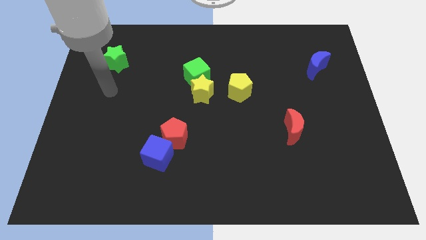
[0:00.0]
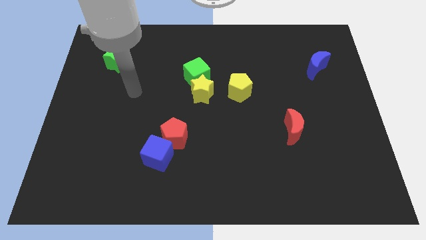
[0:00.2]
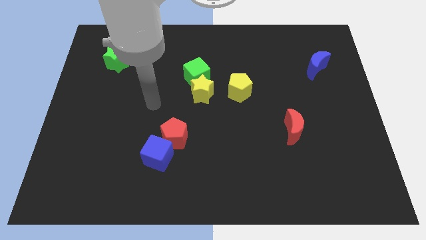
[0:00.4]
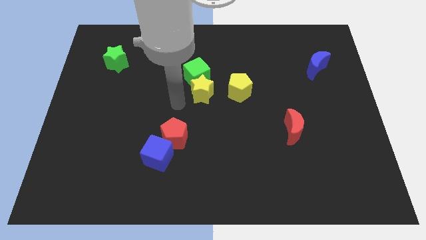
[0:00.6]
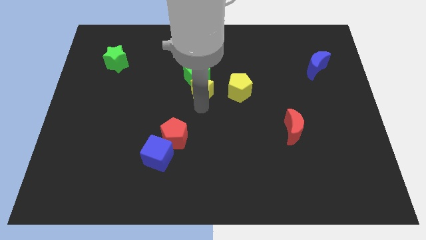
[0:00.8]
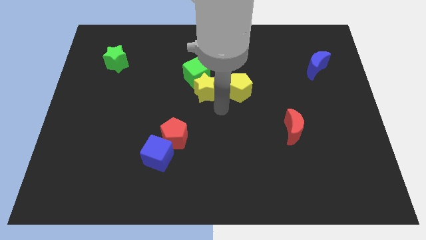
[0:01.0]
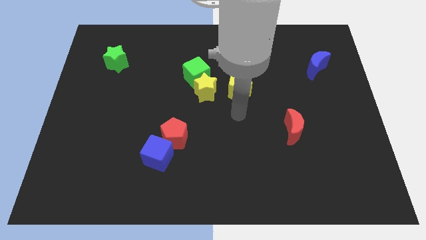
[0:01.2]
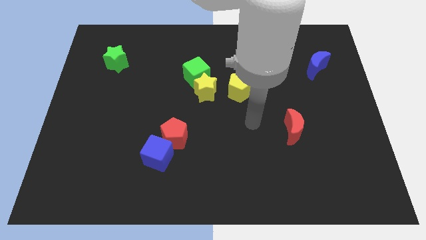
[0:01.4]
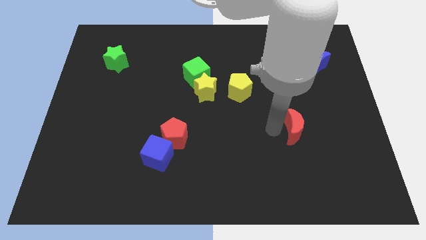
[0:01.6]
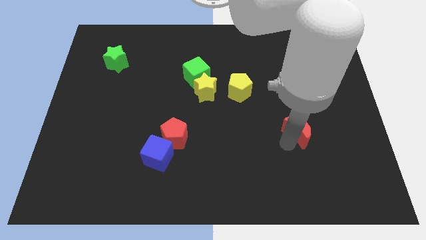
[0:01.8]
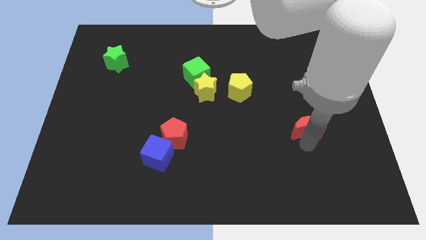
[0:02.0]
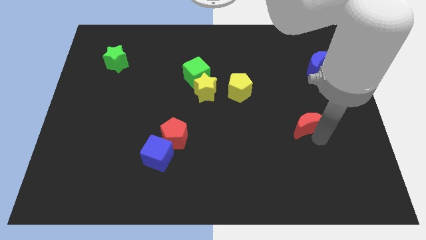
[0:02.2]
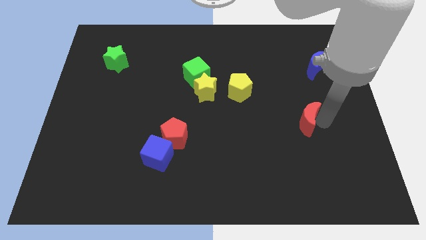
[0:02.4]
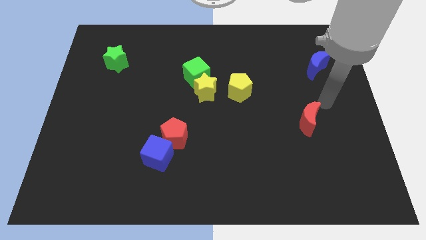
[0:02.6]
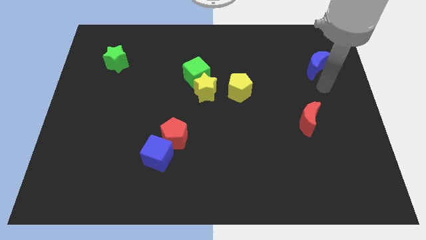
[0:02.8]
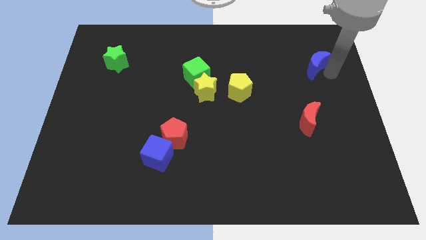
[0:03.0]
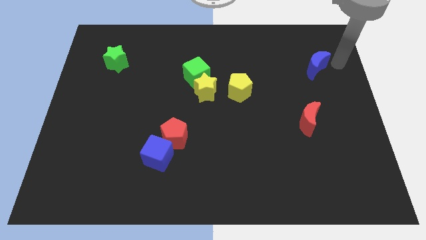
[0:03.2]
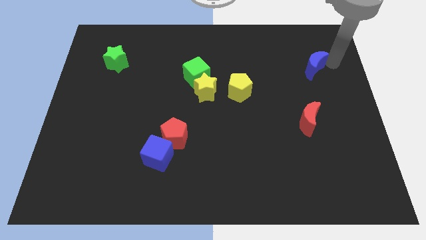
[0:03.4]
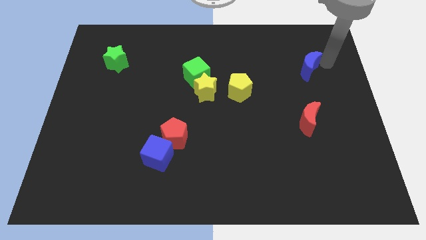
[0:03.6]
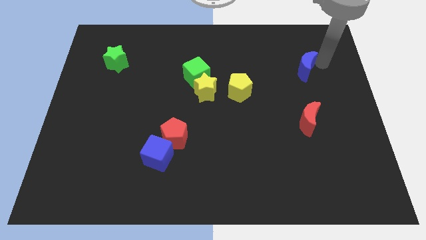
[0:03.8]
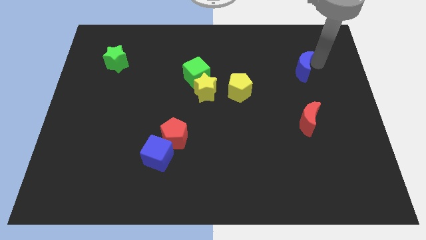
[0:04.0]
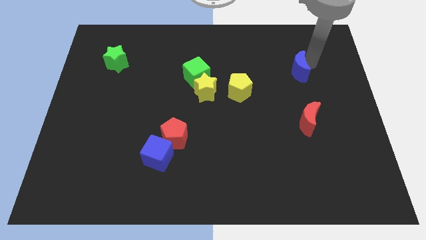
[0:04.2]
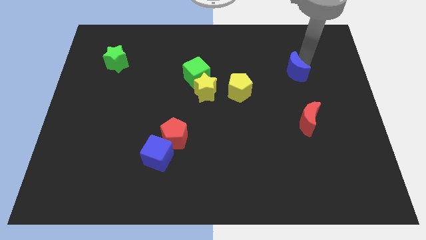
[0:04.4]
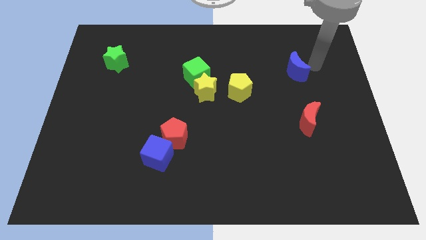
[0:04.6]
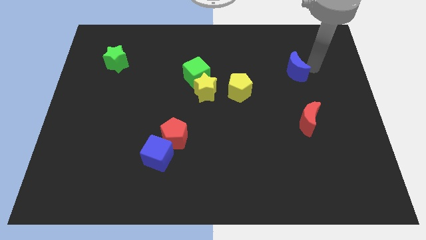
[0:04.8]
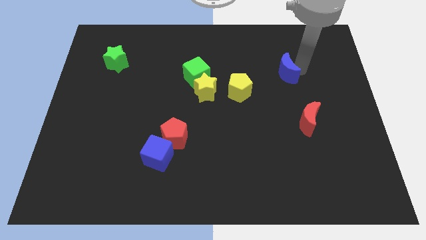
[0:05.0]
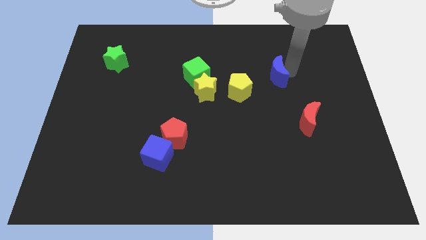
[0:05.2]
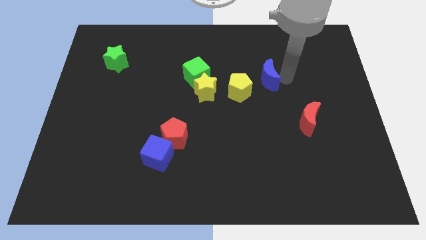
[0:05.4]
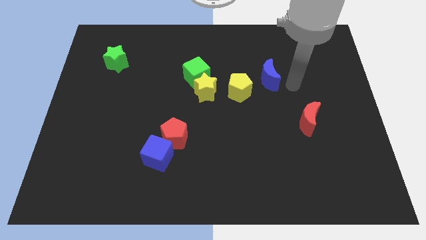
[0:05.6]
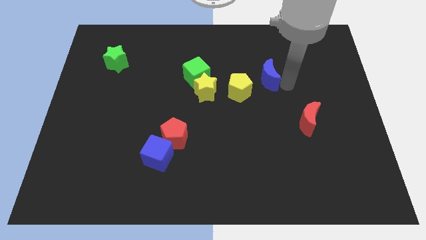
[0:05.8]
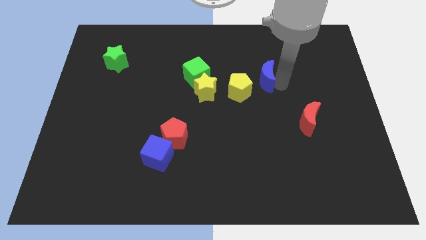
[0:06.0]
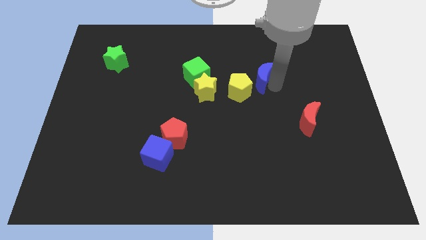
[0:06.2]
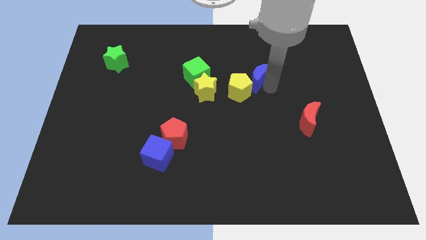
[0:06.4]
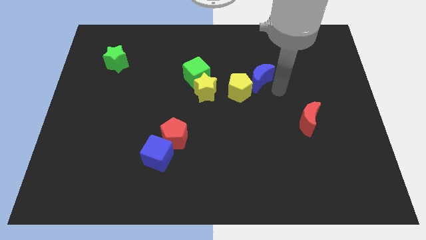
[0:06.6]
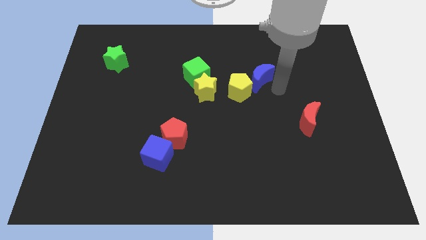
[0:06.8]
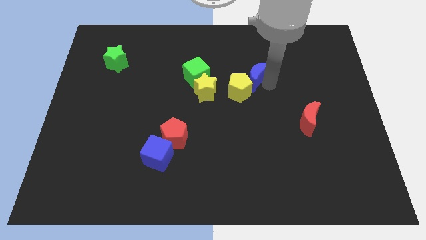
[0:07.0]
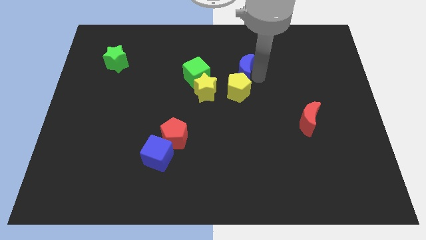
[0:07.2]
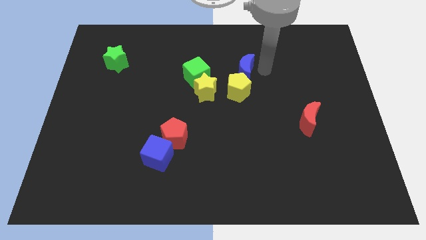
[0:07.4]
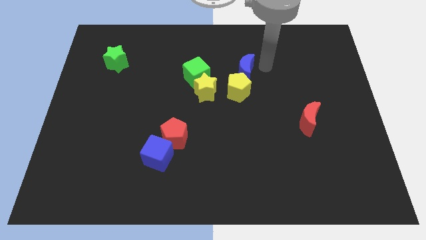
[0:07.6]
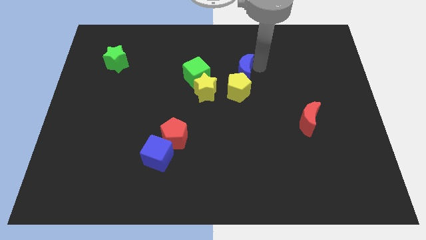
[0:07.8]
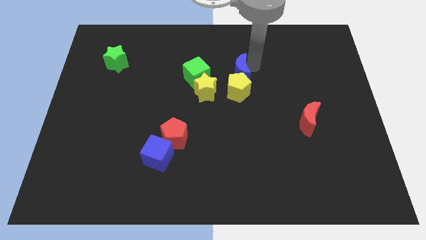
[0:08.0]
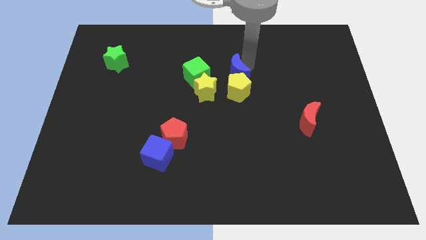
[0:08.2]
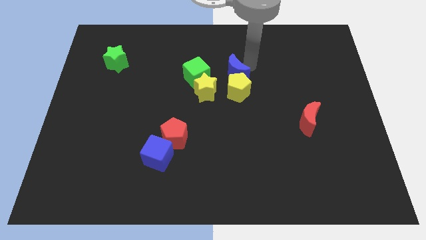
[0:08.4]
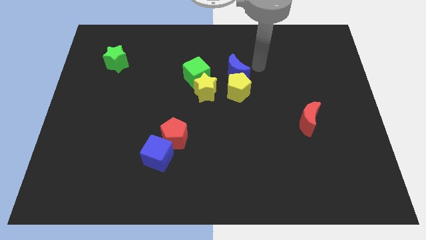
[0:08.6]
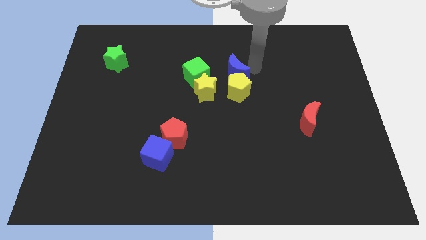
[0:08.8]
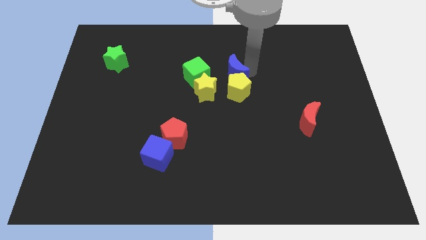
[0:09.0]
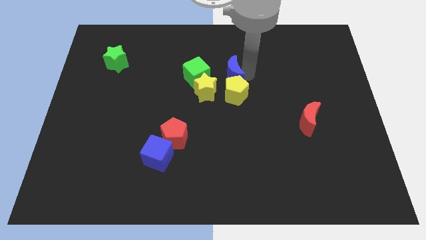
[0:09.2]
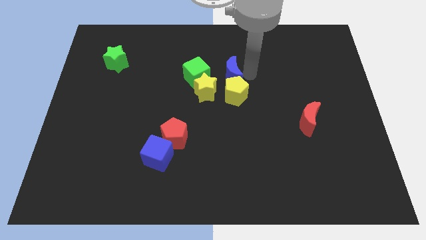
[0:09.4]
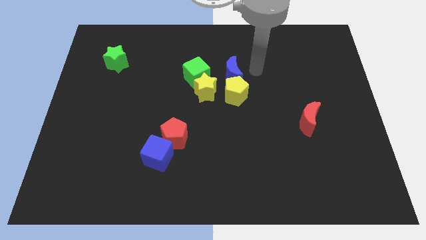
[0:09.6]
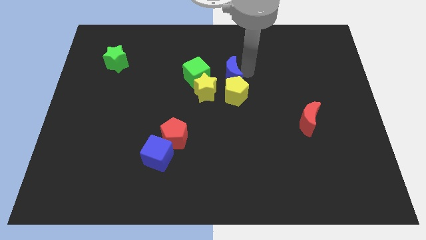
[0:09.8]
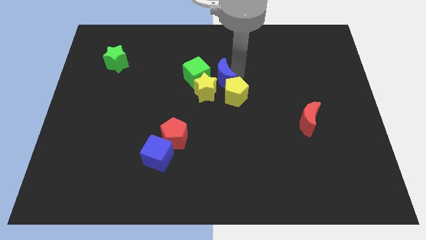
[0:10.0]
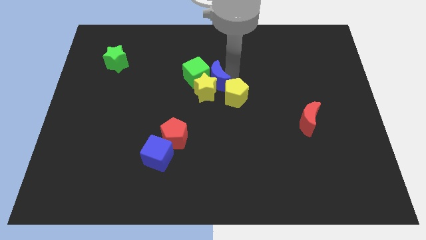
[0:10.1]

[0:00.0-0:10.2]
slide the blue moon next to the green cube

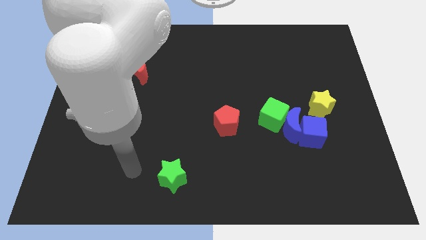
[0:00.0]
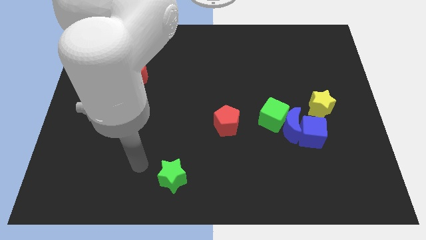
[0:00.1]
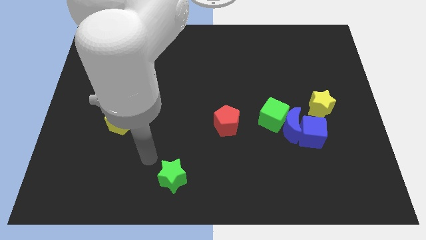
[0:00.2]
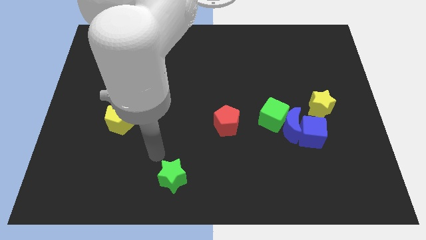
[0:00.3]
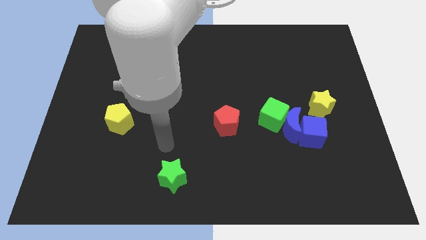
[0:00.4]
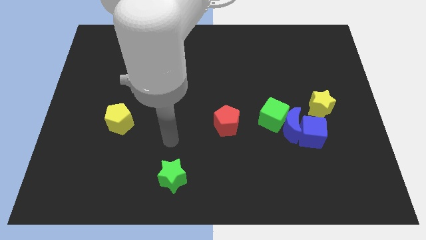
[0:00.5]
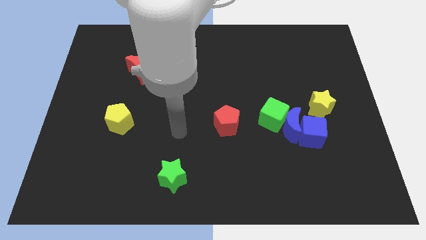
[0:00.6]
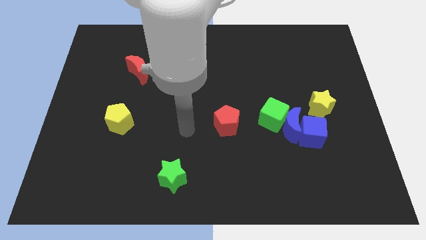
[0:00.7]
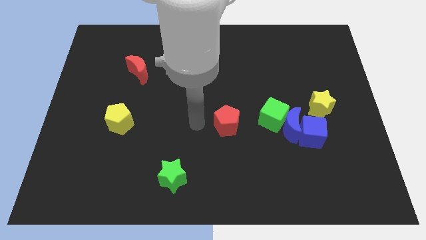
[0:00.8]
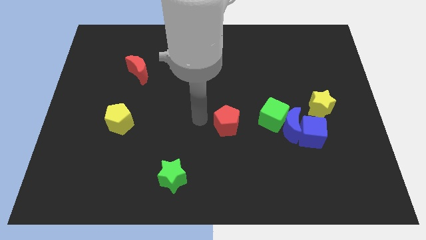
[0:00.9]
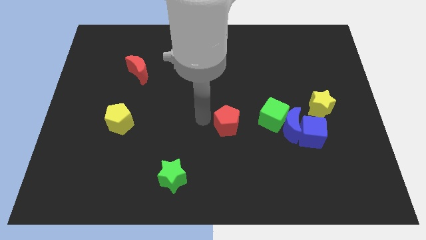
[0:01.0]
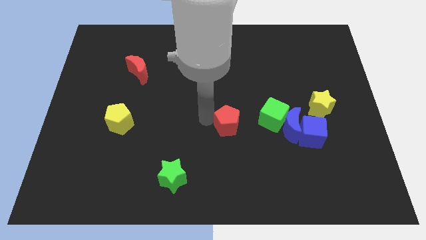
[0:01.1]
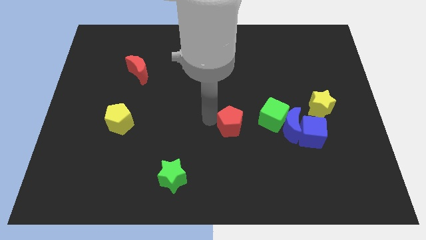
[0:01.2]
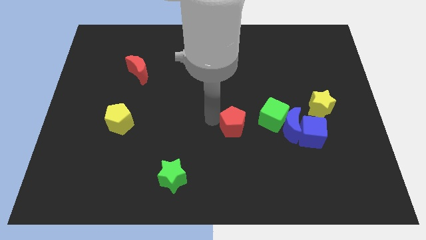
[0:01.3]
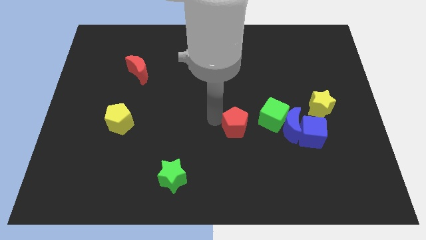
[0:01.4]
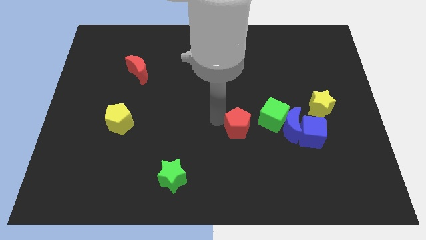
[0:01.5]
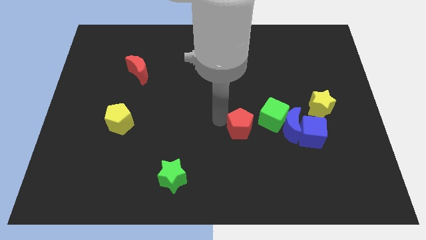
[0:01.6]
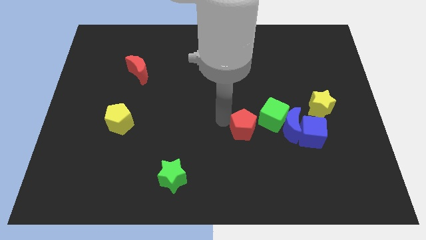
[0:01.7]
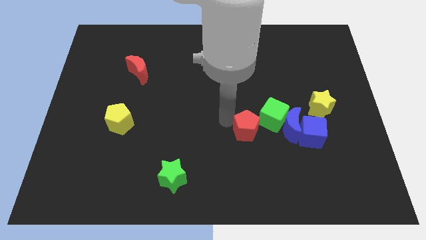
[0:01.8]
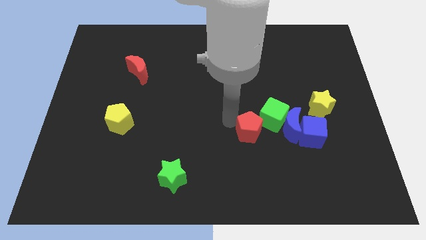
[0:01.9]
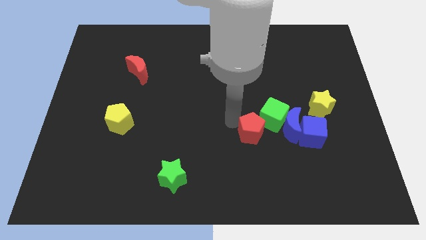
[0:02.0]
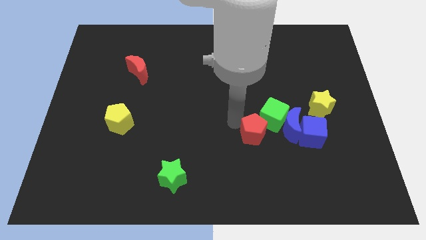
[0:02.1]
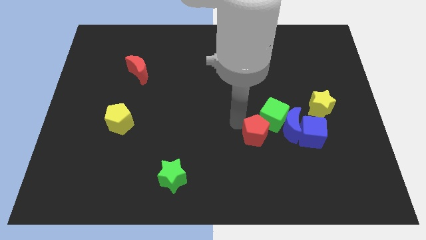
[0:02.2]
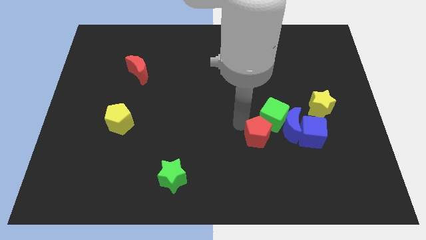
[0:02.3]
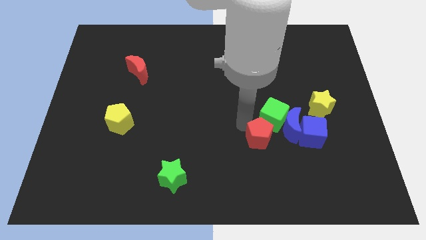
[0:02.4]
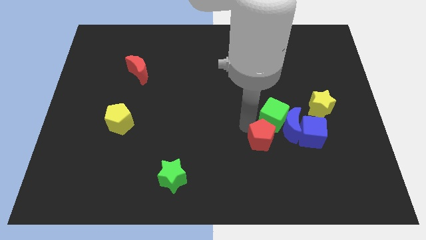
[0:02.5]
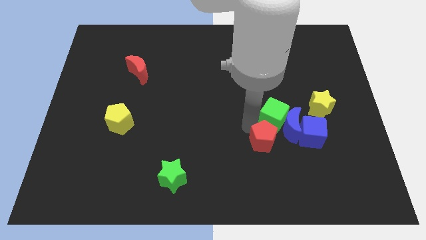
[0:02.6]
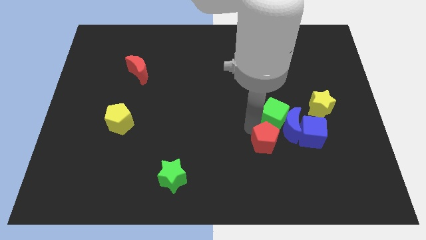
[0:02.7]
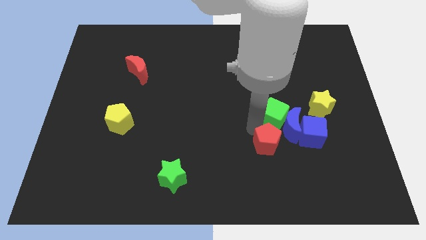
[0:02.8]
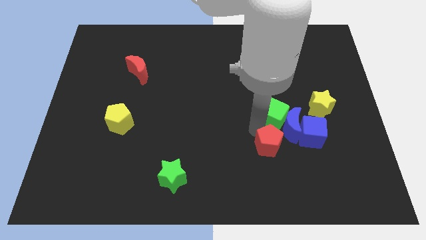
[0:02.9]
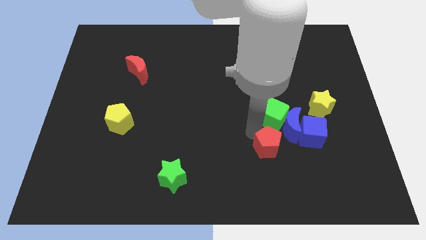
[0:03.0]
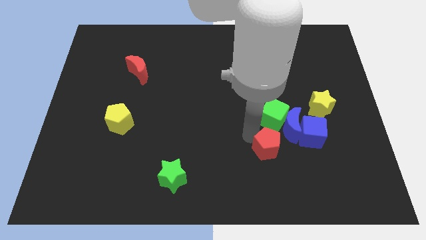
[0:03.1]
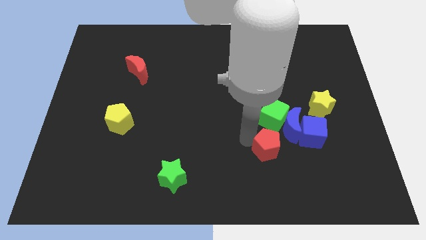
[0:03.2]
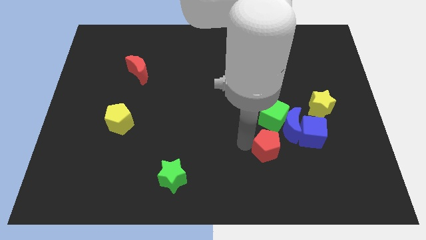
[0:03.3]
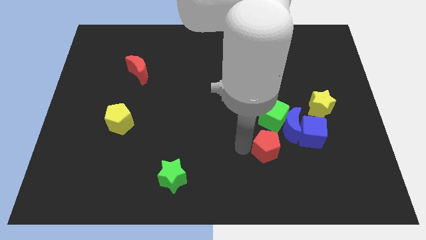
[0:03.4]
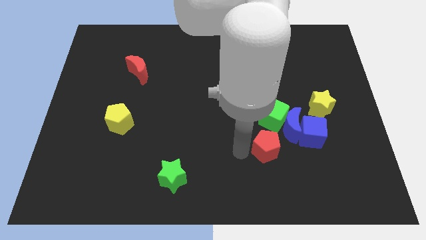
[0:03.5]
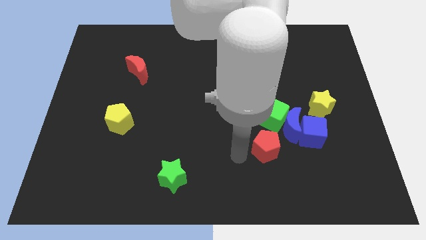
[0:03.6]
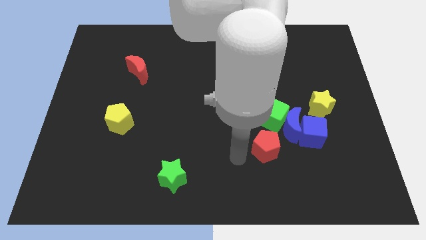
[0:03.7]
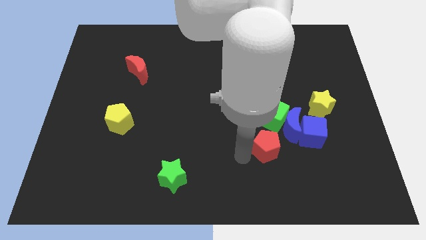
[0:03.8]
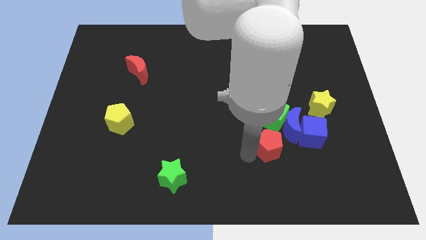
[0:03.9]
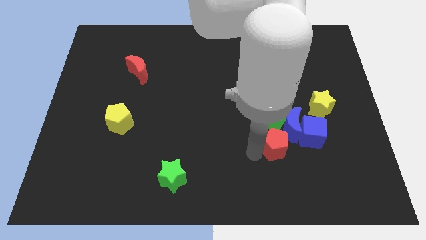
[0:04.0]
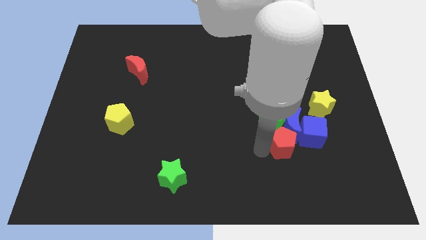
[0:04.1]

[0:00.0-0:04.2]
move the red pentagon to the blue moon
